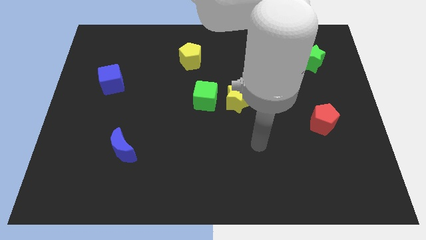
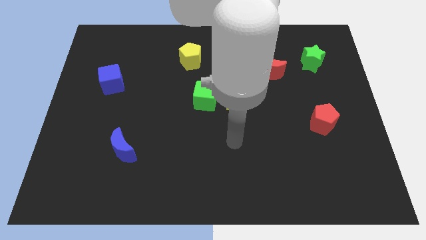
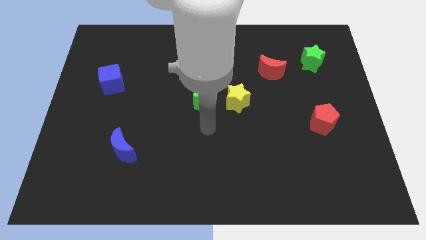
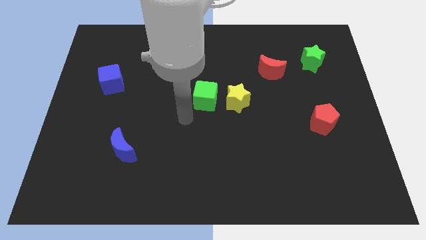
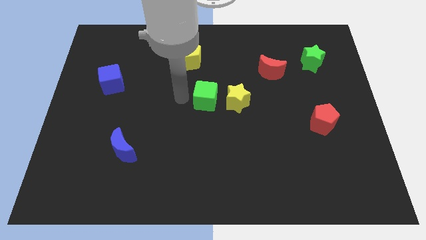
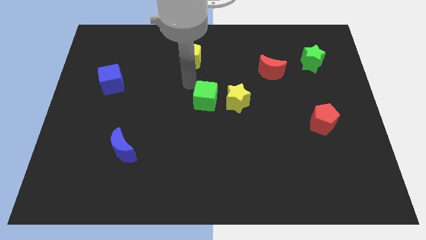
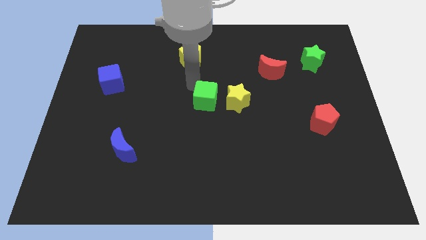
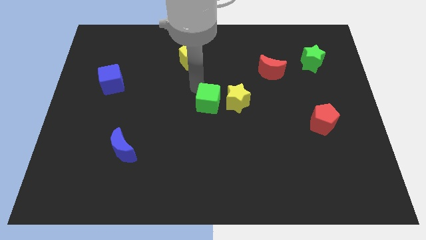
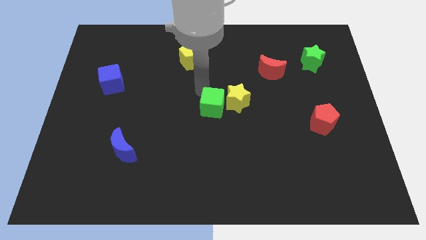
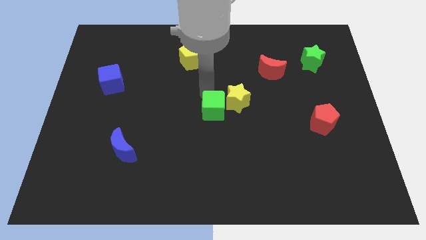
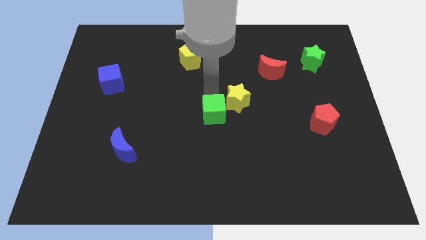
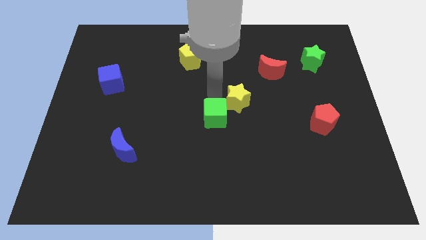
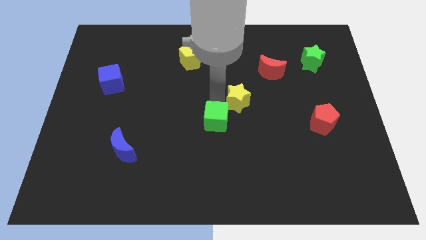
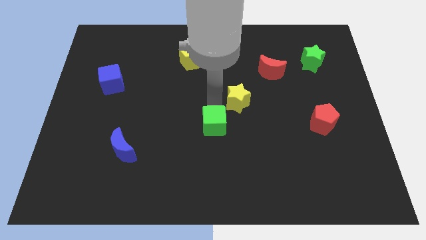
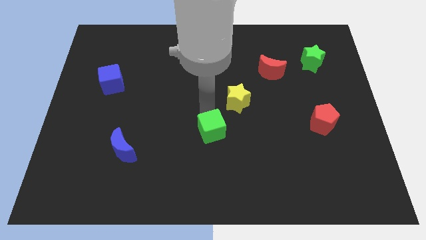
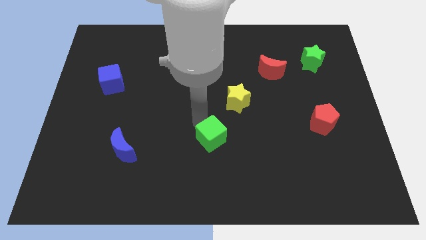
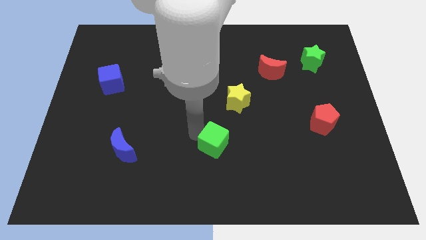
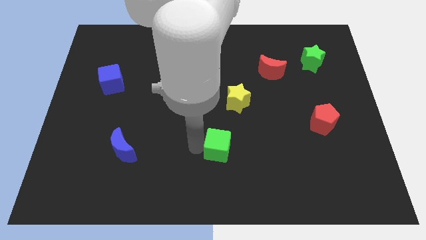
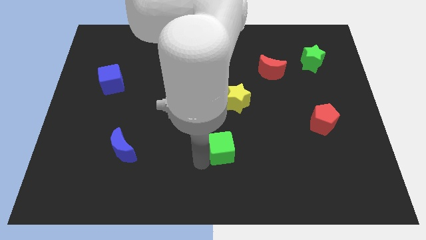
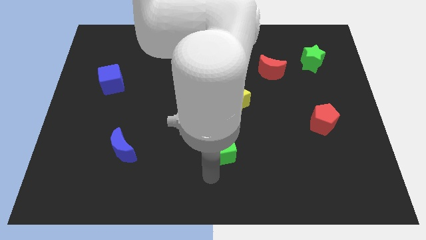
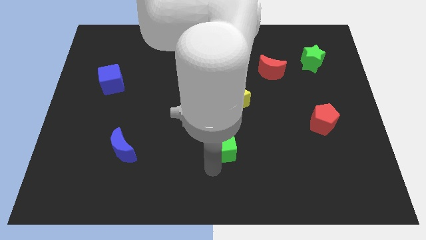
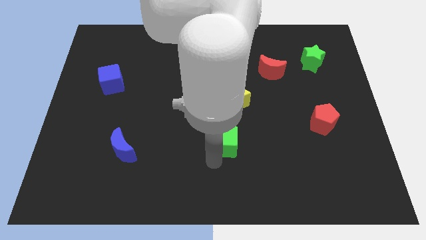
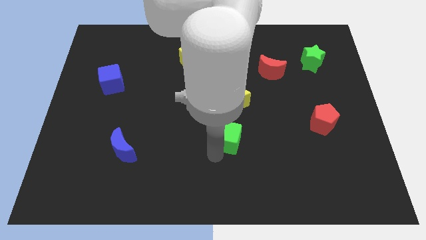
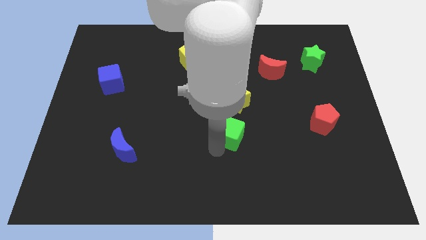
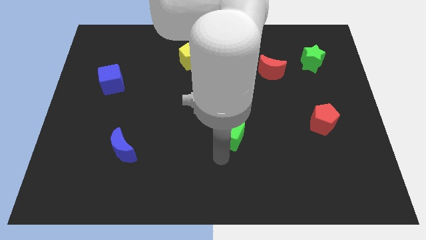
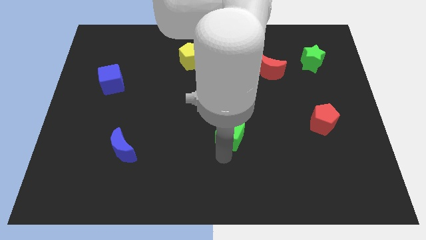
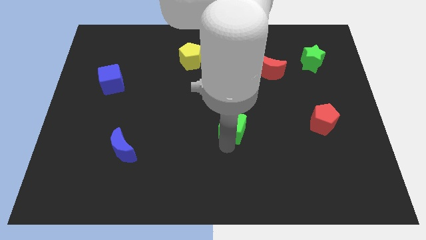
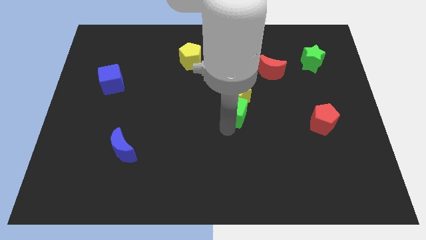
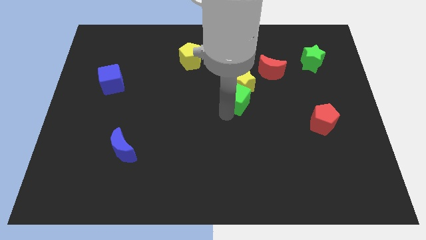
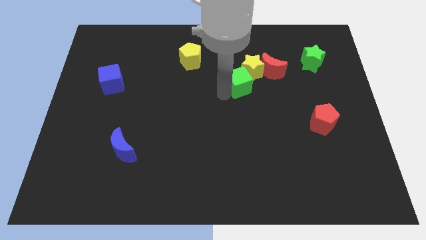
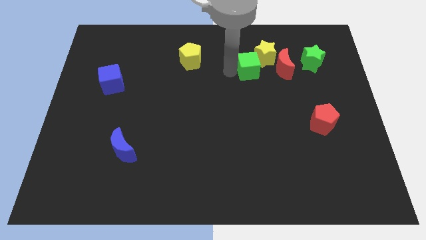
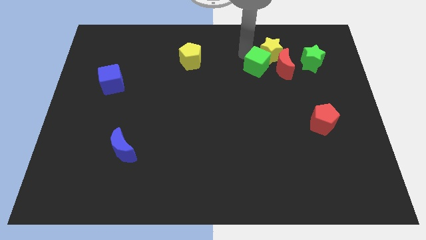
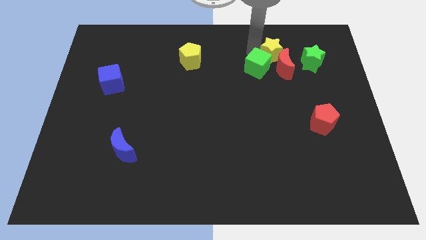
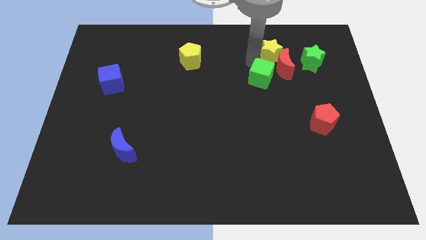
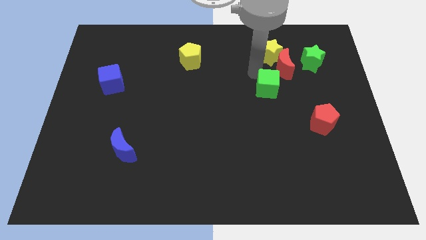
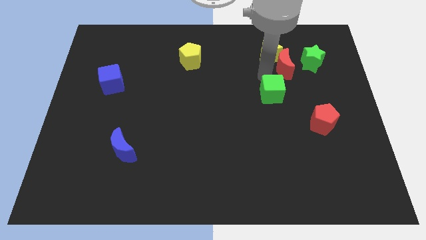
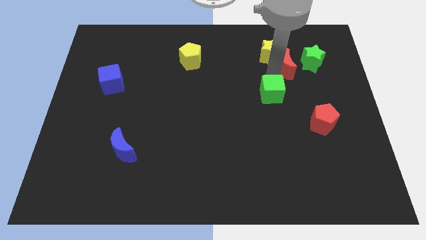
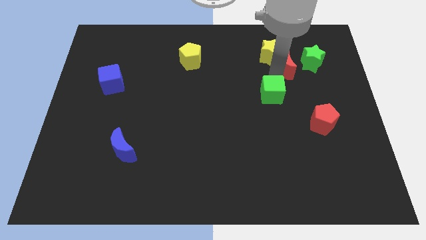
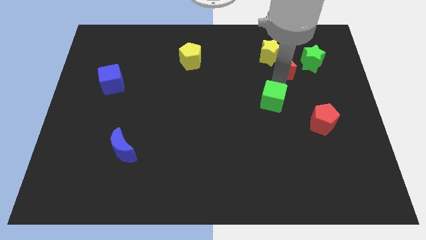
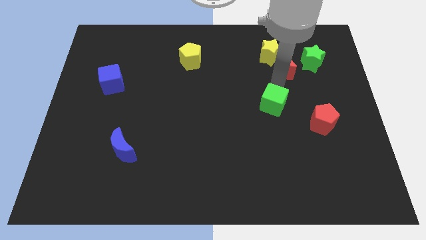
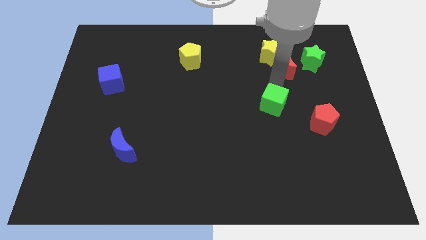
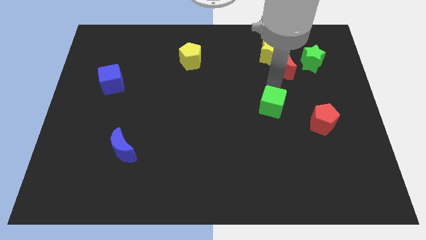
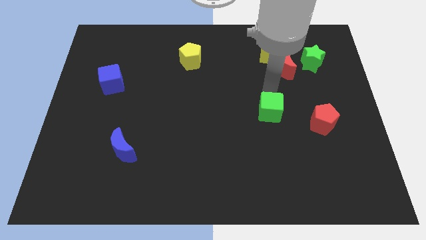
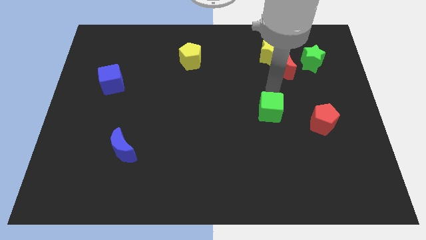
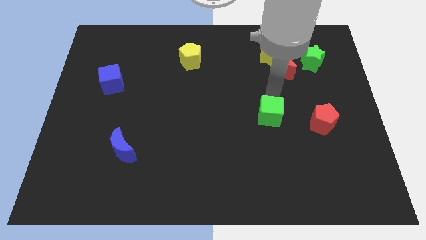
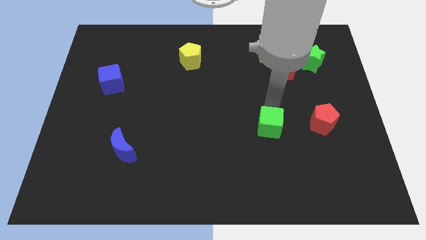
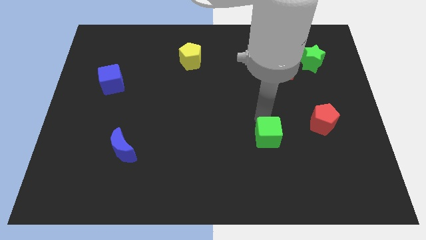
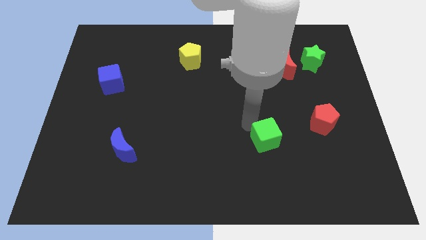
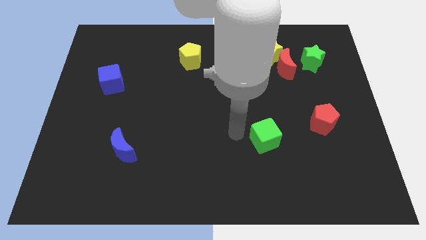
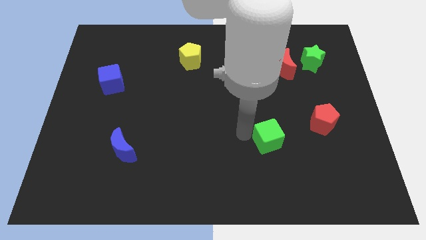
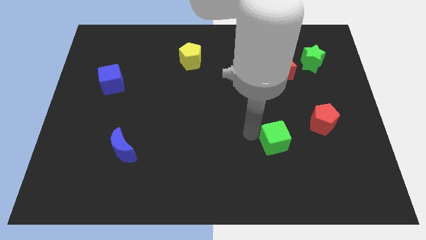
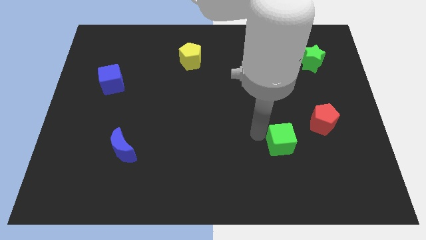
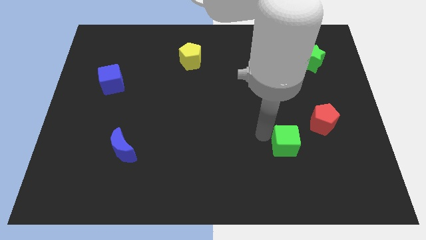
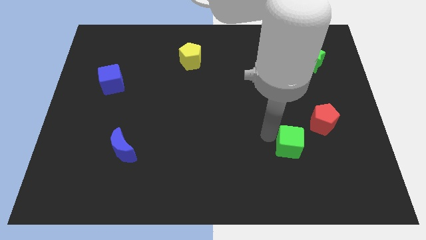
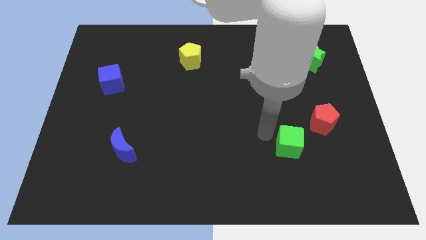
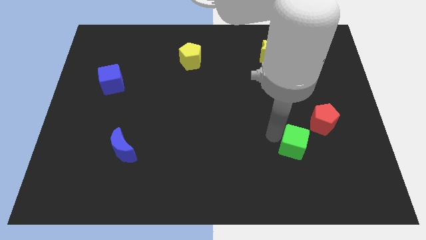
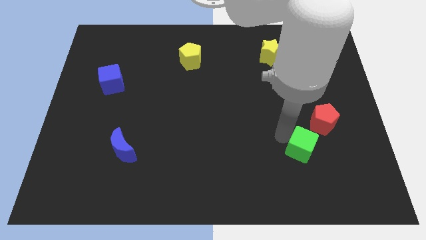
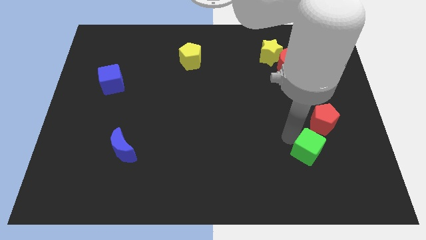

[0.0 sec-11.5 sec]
move the green cube to the bottom of the red pentagon

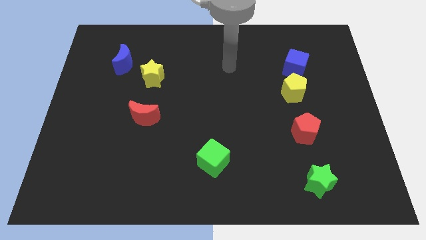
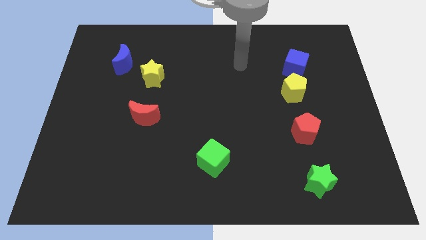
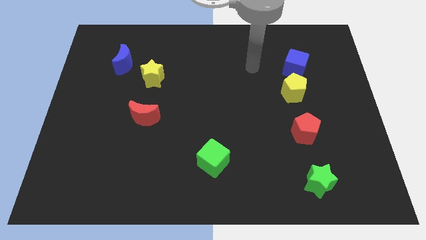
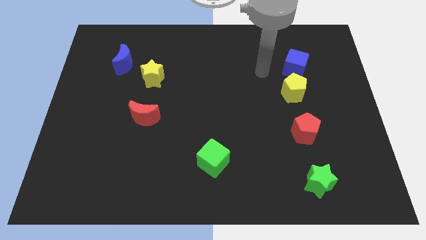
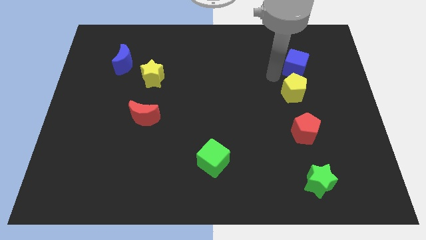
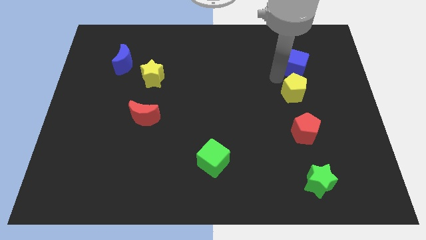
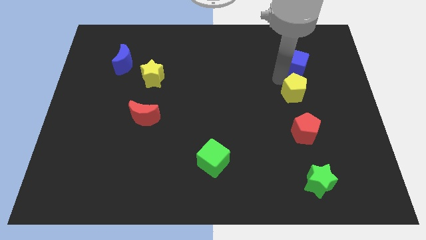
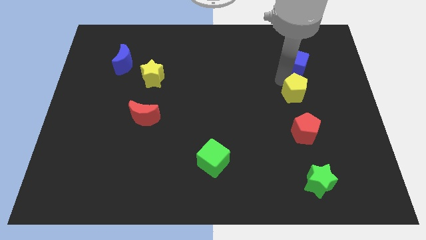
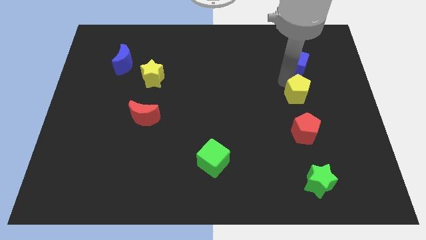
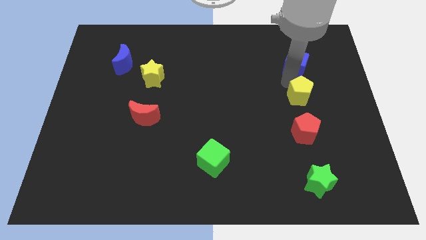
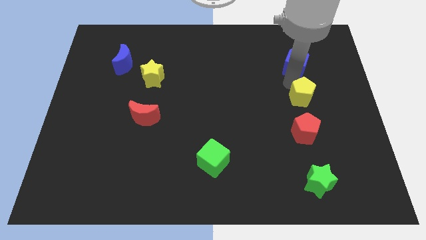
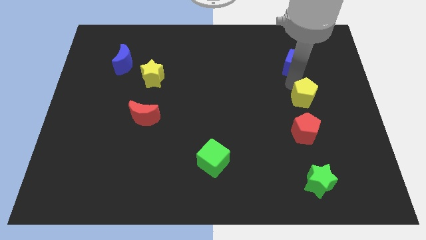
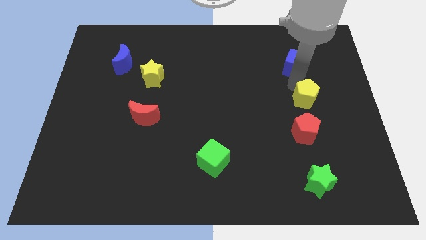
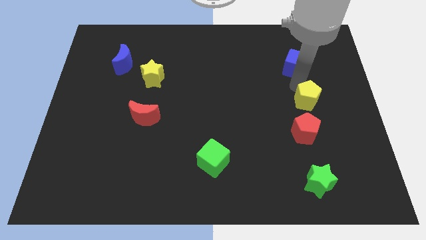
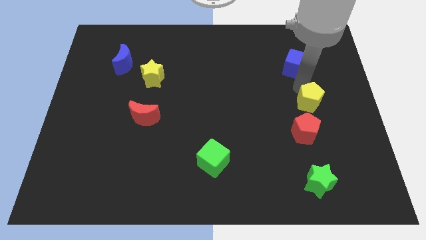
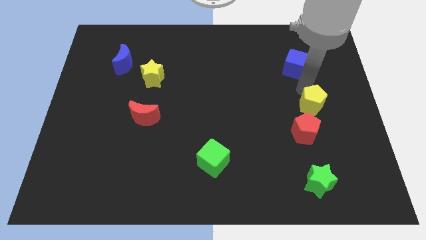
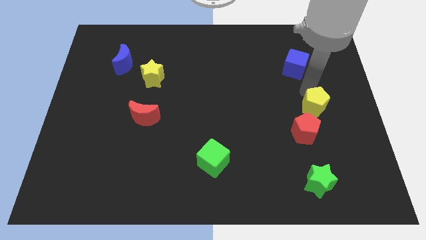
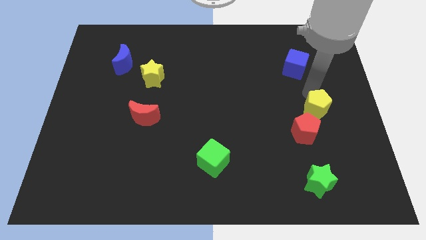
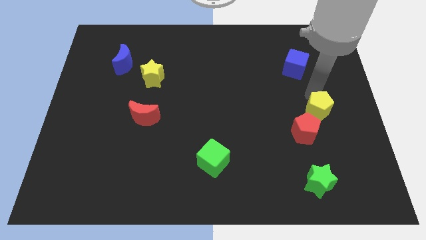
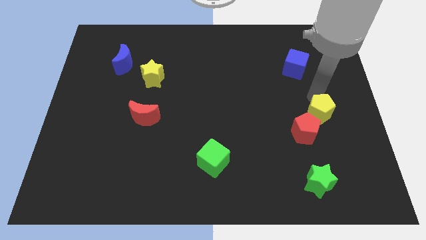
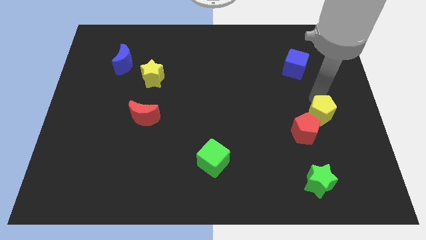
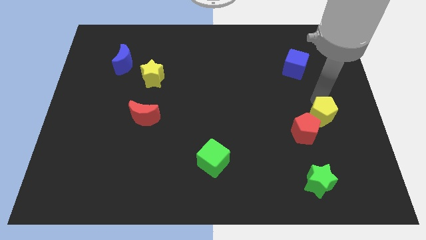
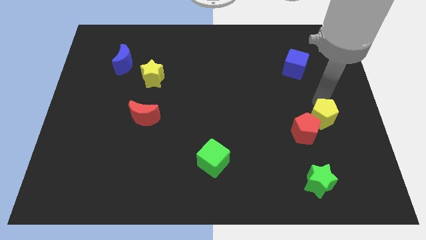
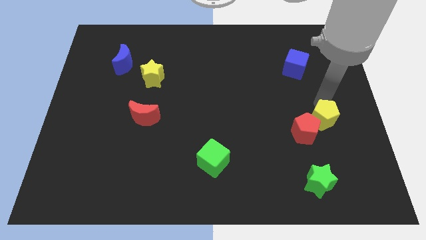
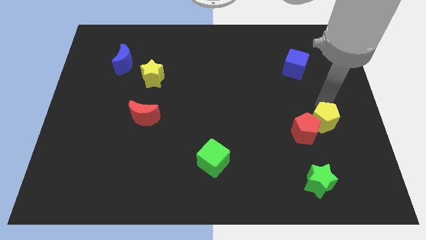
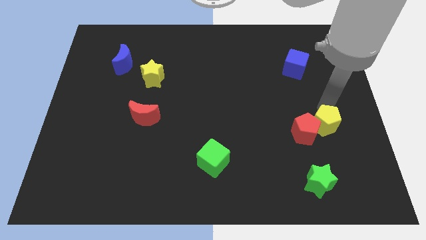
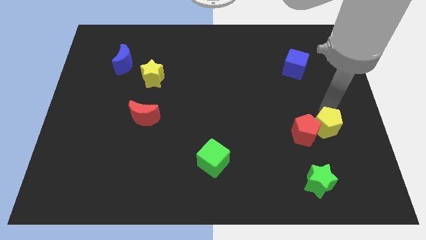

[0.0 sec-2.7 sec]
slide the yellow pentagon to the bottom right side of the red pentagon
